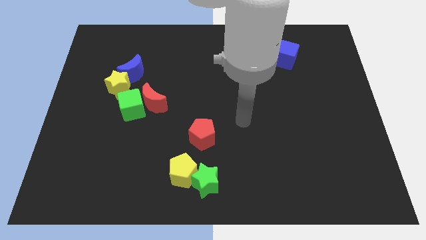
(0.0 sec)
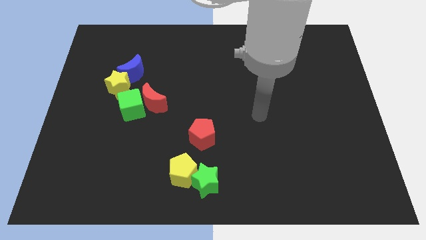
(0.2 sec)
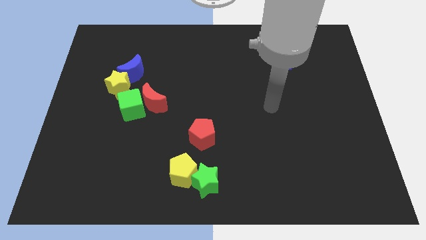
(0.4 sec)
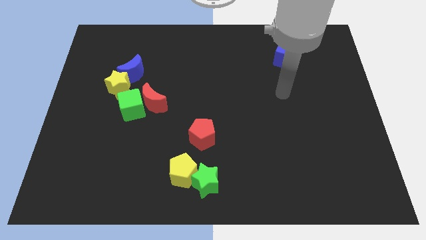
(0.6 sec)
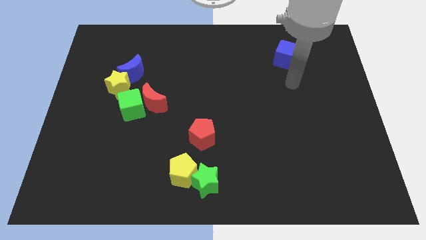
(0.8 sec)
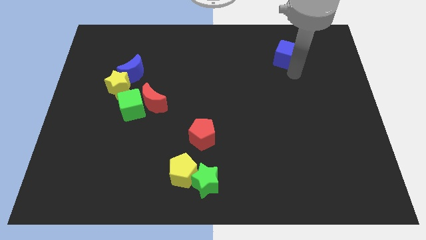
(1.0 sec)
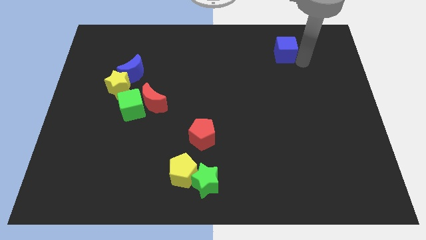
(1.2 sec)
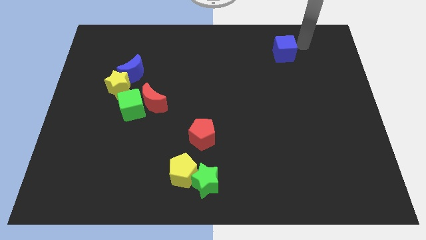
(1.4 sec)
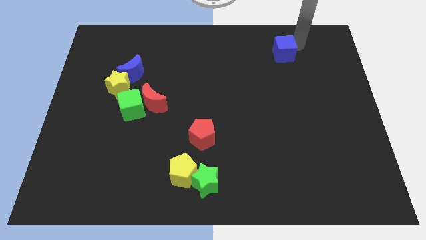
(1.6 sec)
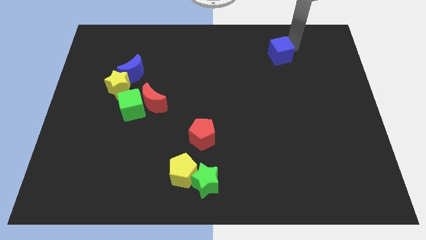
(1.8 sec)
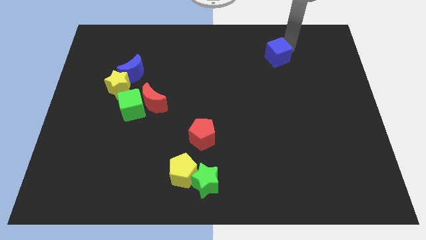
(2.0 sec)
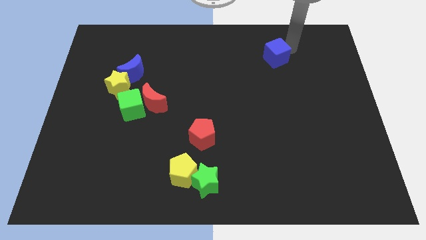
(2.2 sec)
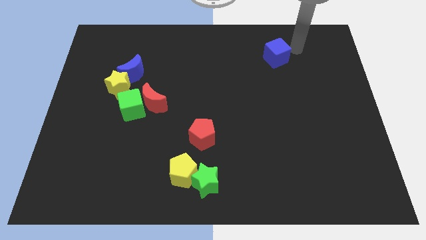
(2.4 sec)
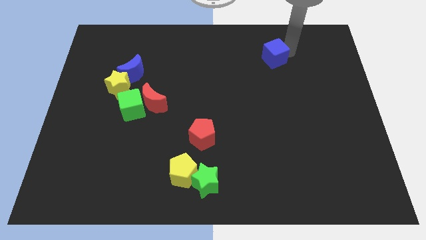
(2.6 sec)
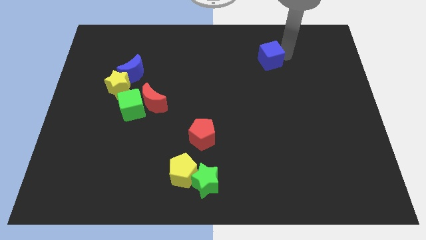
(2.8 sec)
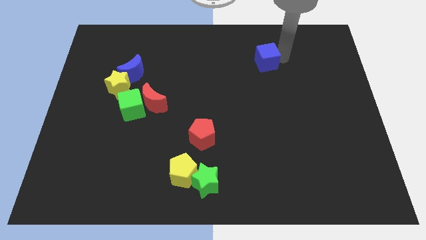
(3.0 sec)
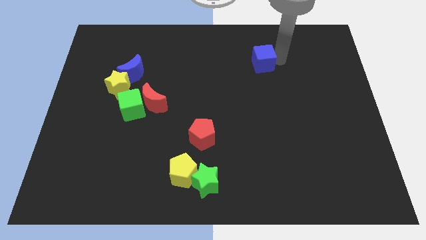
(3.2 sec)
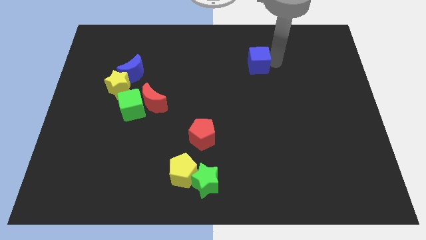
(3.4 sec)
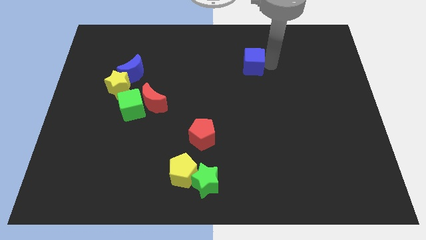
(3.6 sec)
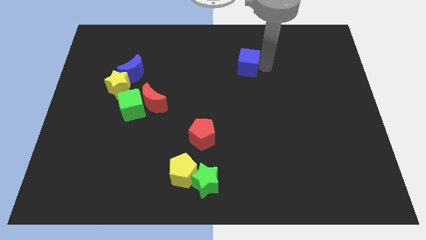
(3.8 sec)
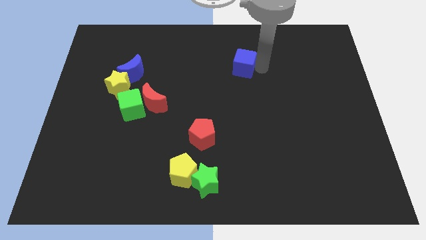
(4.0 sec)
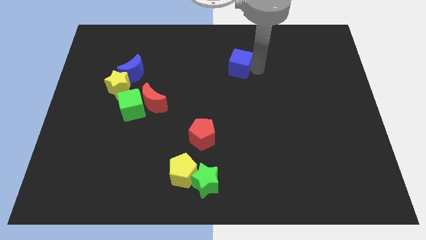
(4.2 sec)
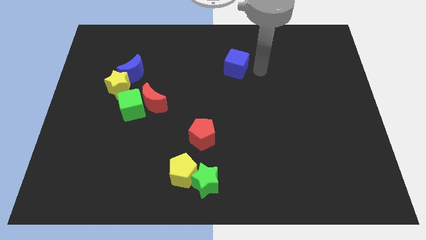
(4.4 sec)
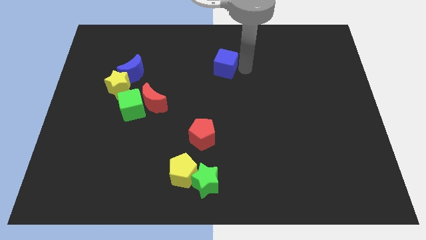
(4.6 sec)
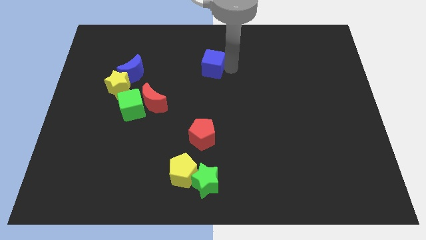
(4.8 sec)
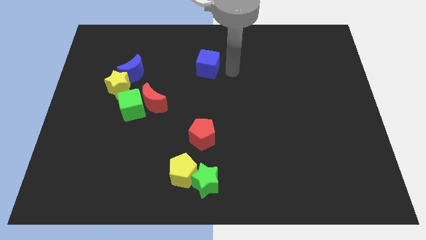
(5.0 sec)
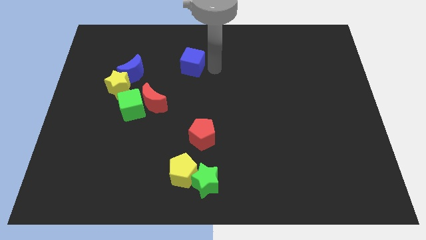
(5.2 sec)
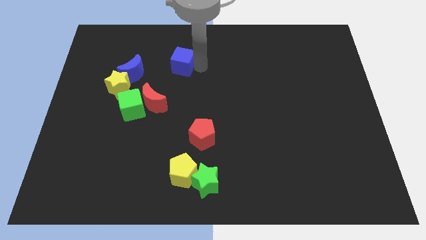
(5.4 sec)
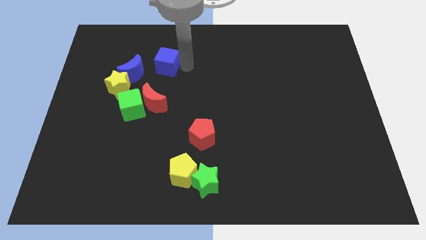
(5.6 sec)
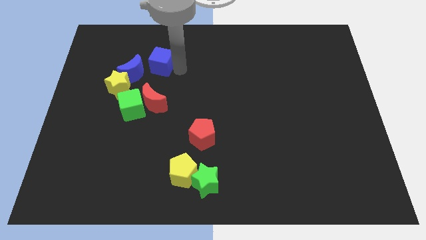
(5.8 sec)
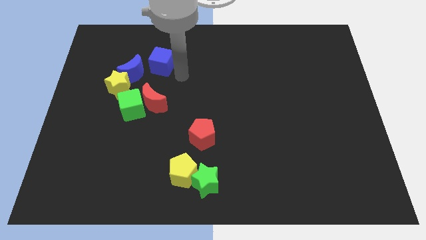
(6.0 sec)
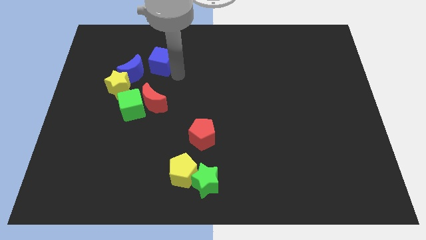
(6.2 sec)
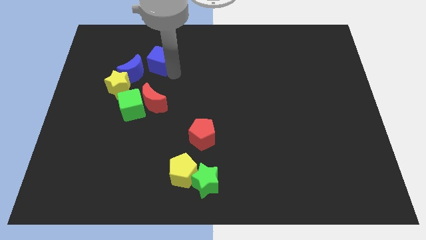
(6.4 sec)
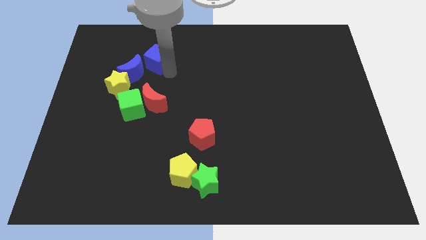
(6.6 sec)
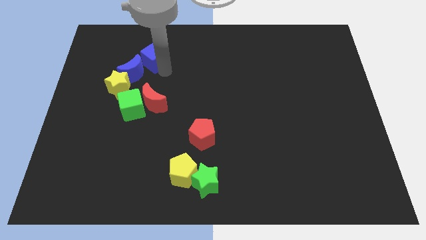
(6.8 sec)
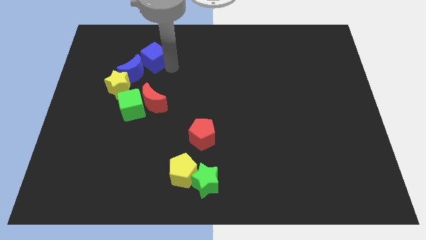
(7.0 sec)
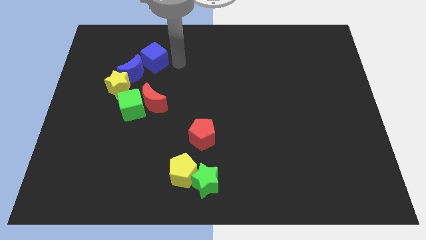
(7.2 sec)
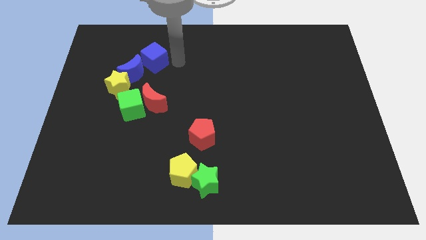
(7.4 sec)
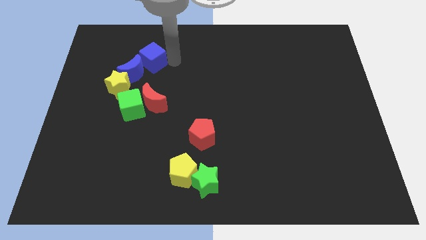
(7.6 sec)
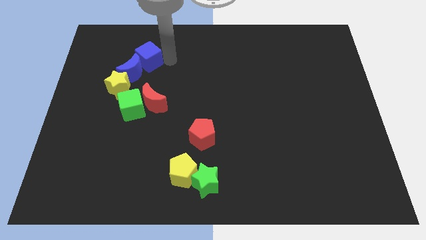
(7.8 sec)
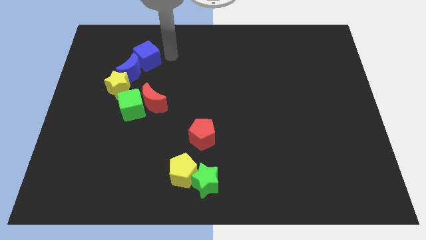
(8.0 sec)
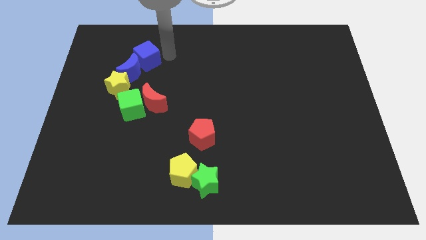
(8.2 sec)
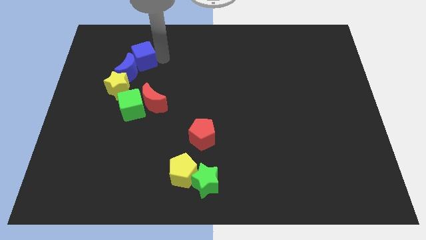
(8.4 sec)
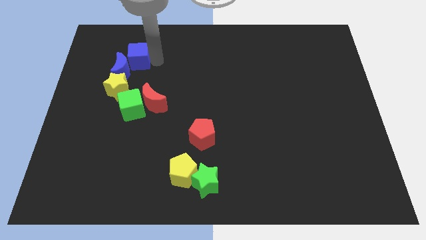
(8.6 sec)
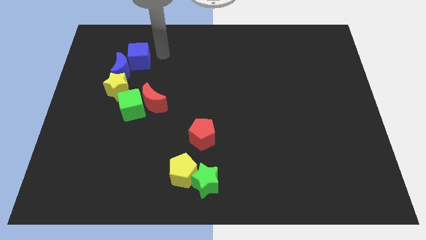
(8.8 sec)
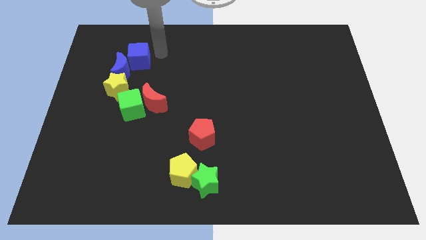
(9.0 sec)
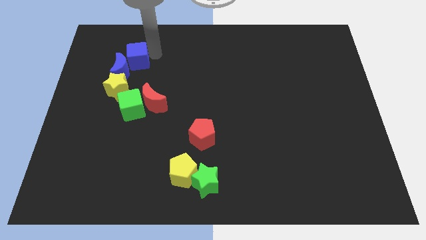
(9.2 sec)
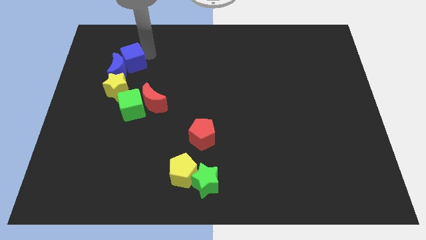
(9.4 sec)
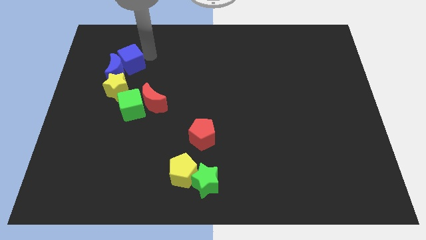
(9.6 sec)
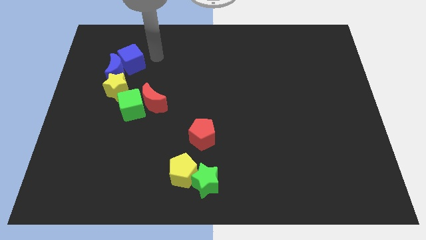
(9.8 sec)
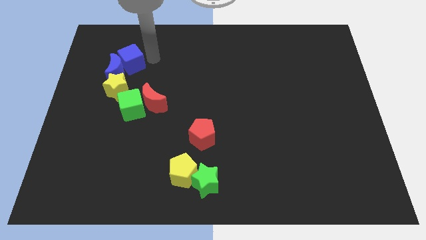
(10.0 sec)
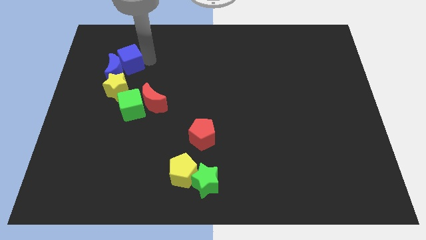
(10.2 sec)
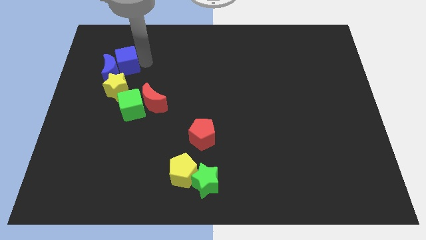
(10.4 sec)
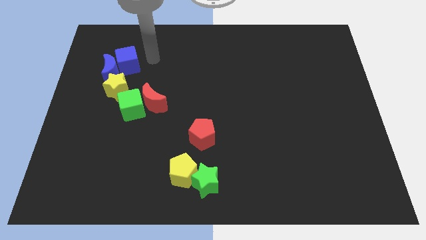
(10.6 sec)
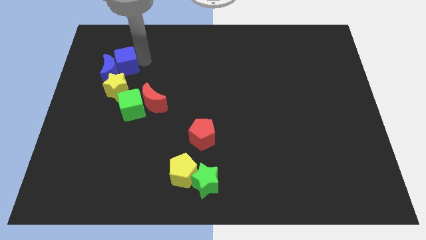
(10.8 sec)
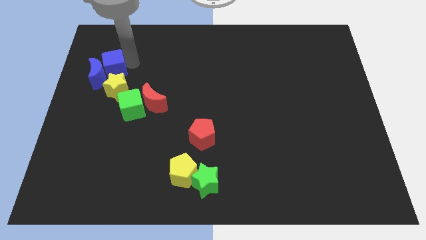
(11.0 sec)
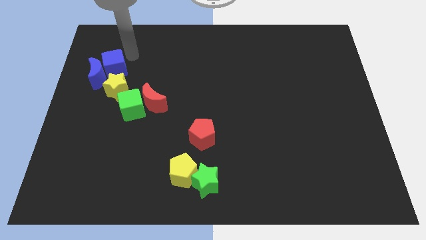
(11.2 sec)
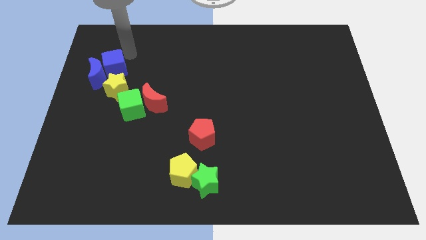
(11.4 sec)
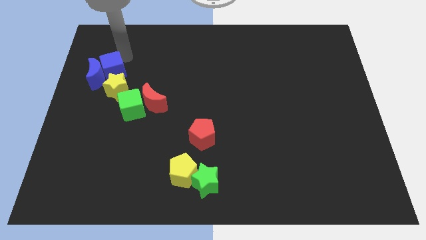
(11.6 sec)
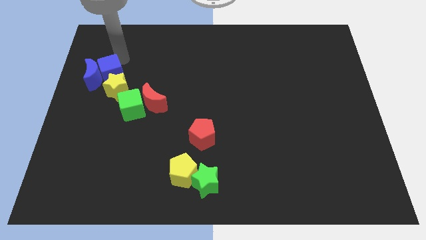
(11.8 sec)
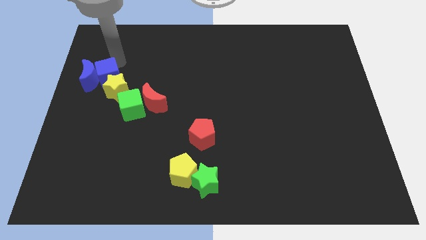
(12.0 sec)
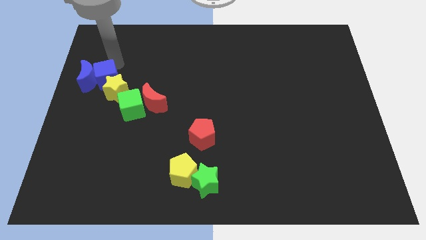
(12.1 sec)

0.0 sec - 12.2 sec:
put the blue cube to the left side of the board
